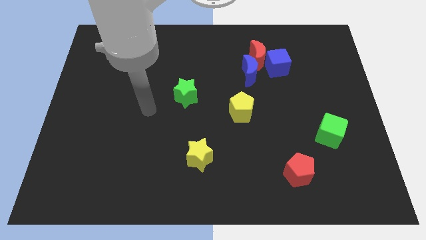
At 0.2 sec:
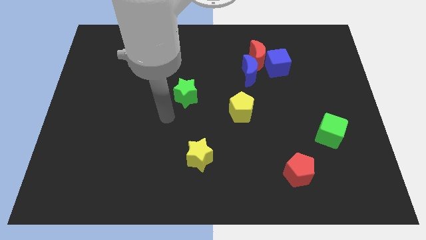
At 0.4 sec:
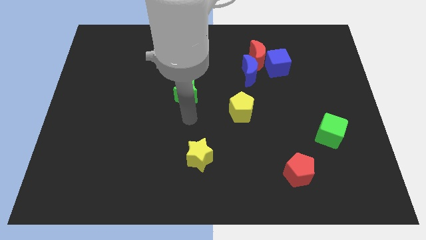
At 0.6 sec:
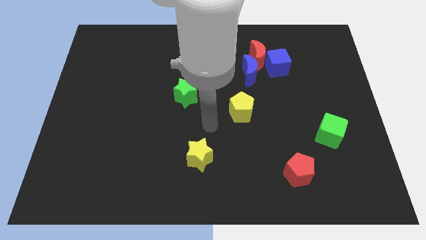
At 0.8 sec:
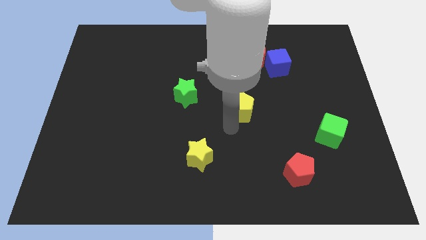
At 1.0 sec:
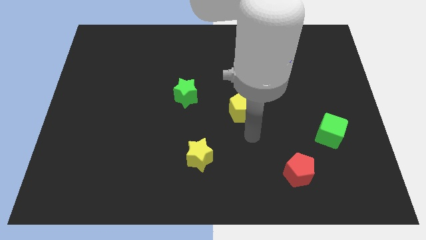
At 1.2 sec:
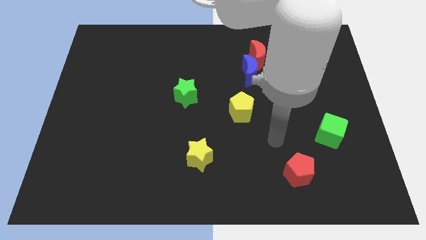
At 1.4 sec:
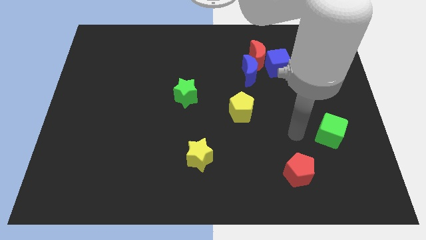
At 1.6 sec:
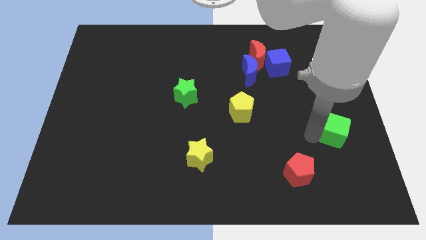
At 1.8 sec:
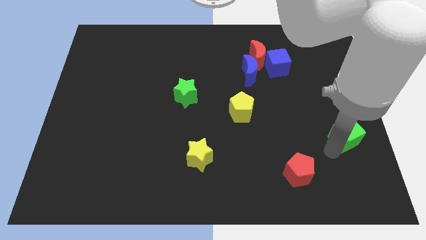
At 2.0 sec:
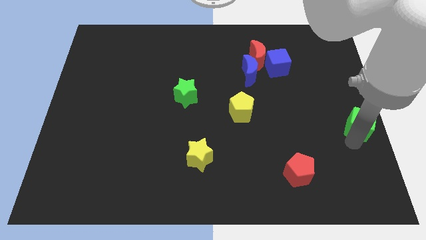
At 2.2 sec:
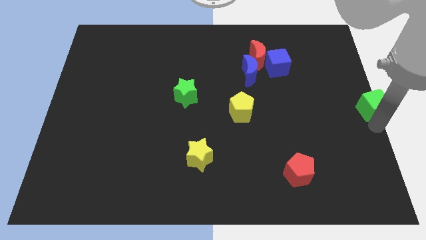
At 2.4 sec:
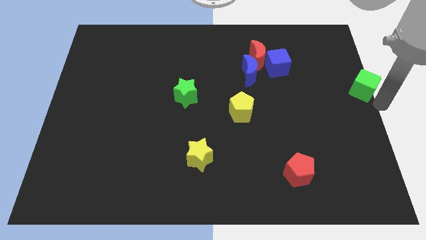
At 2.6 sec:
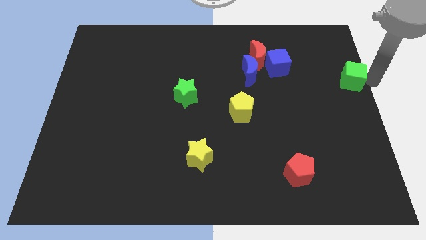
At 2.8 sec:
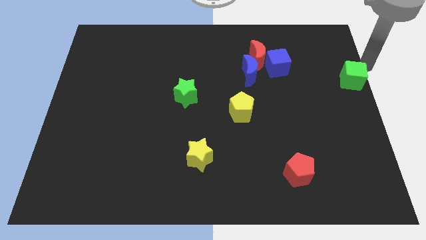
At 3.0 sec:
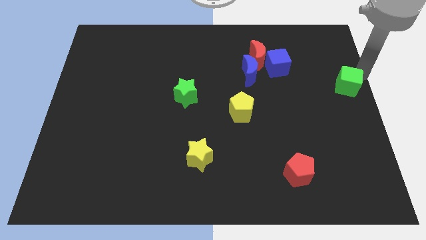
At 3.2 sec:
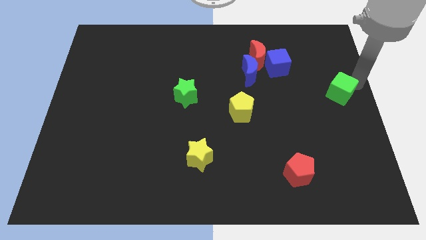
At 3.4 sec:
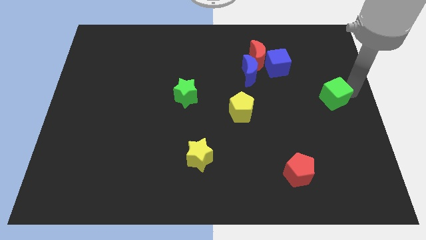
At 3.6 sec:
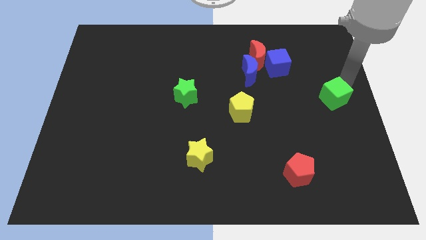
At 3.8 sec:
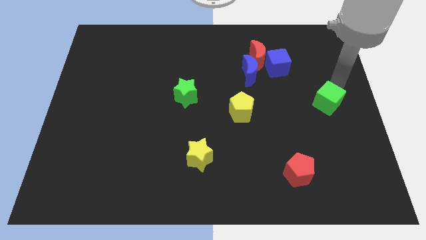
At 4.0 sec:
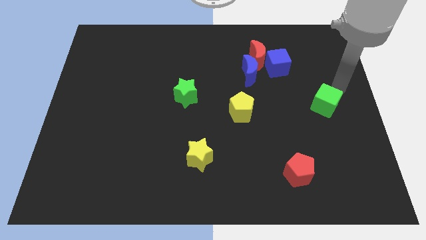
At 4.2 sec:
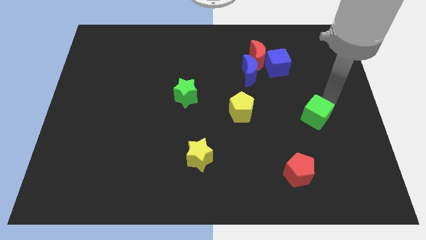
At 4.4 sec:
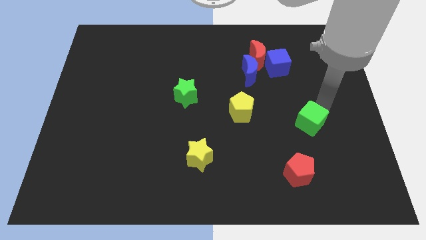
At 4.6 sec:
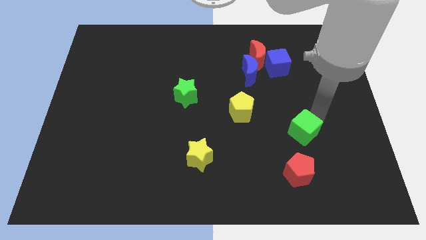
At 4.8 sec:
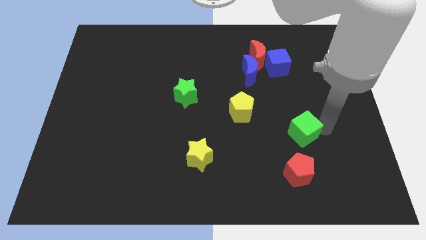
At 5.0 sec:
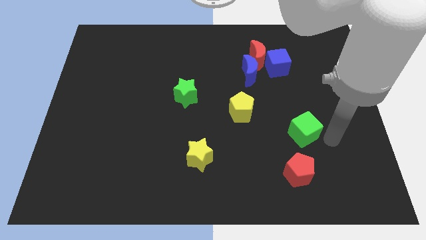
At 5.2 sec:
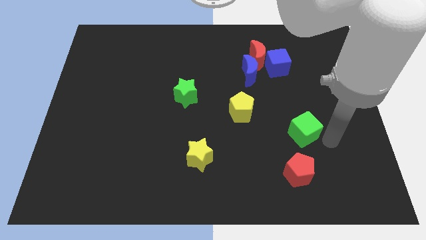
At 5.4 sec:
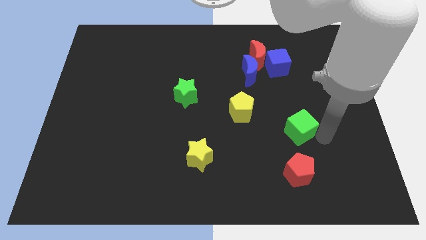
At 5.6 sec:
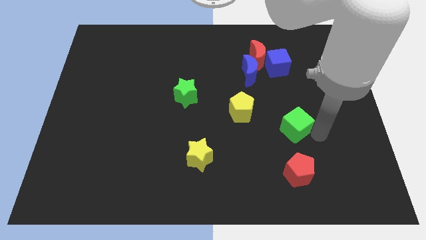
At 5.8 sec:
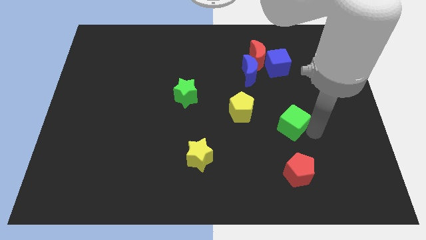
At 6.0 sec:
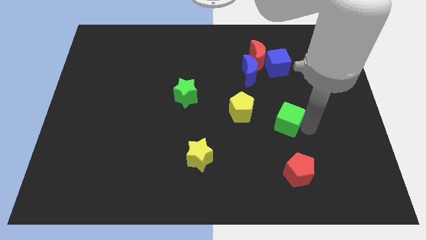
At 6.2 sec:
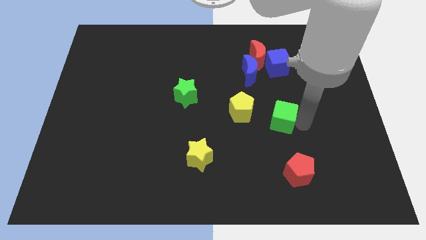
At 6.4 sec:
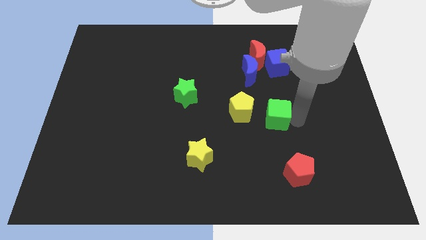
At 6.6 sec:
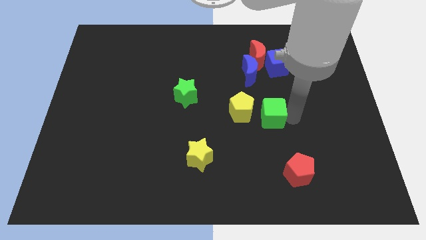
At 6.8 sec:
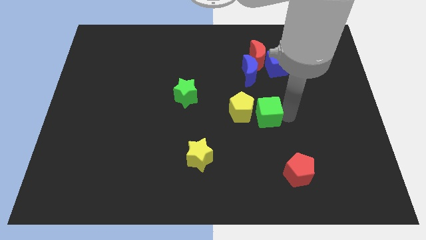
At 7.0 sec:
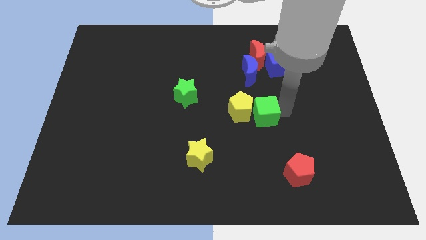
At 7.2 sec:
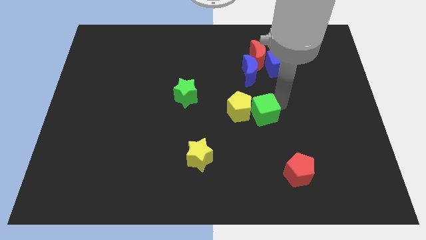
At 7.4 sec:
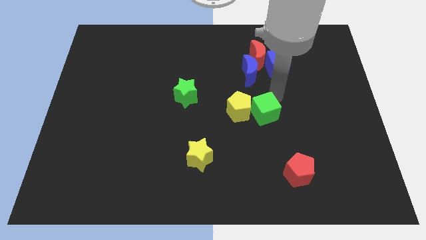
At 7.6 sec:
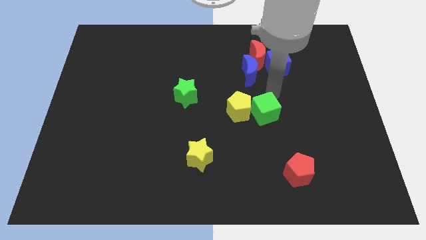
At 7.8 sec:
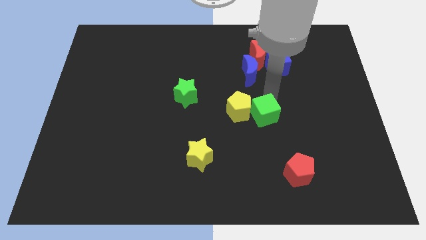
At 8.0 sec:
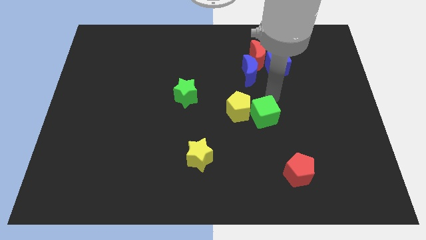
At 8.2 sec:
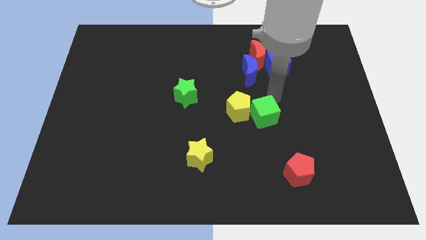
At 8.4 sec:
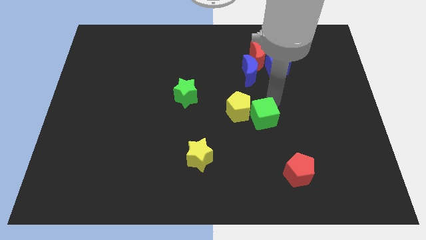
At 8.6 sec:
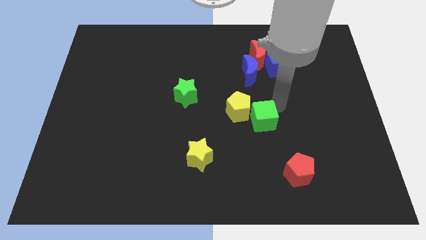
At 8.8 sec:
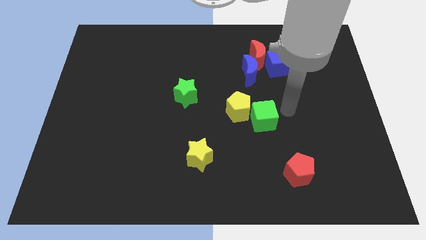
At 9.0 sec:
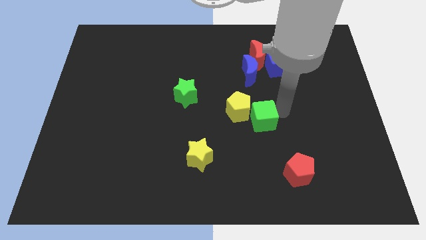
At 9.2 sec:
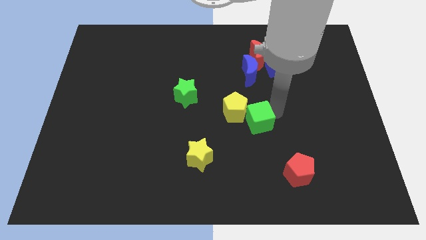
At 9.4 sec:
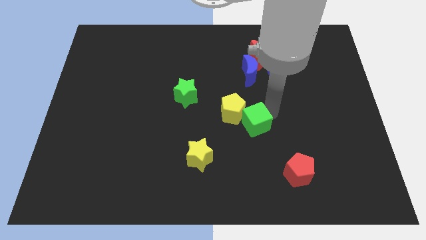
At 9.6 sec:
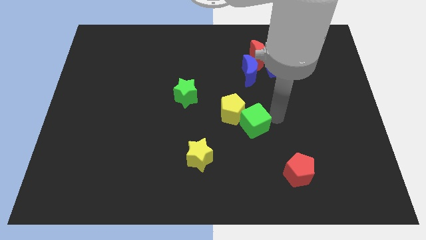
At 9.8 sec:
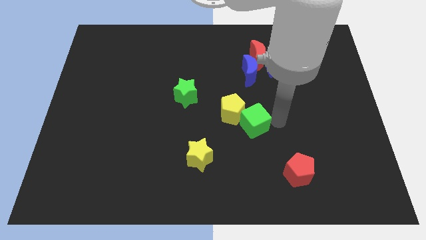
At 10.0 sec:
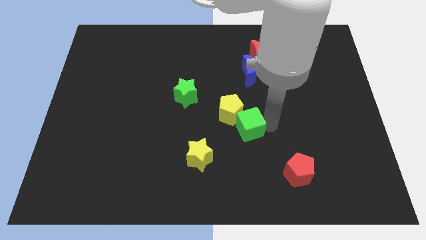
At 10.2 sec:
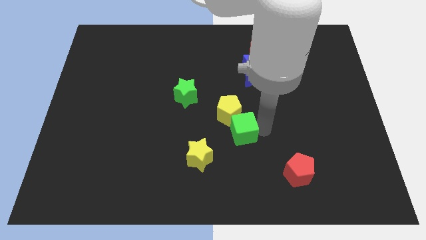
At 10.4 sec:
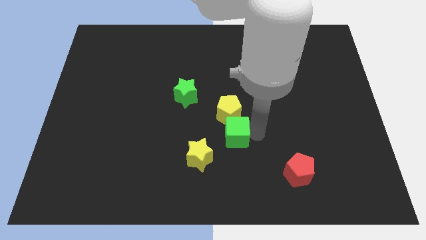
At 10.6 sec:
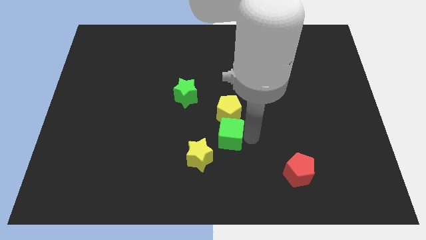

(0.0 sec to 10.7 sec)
push the green cube to the bottom left of the yellow pentagon

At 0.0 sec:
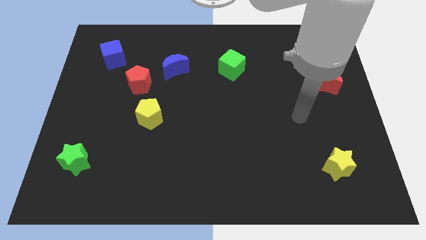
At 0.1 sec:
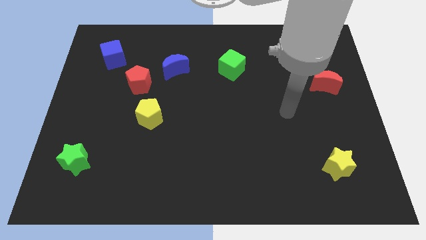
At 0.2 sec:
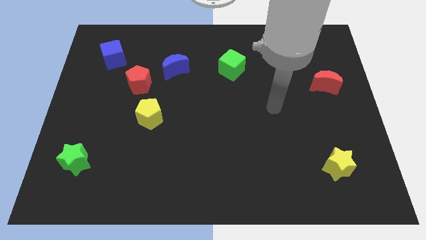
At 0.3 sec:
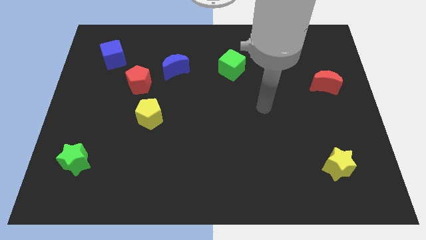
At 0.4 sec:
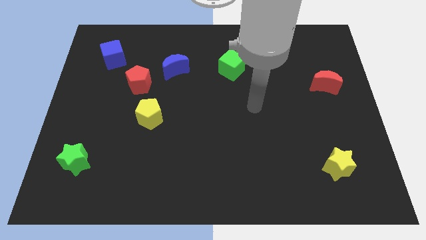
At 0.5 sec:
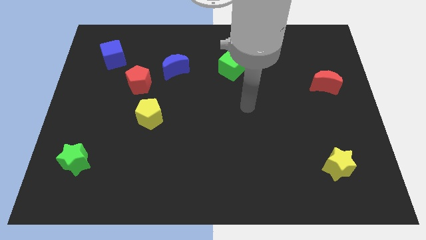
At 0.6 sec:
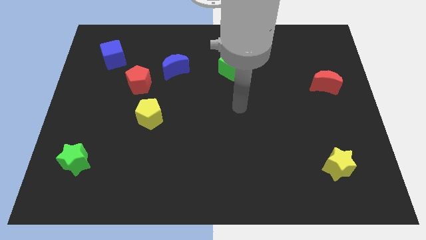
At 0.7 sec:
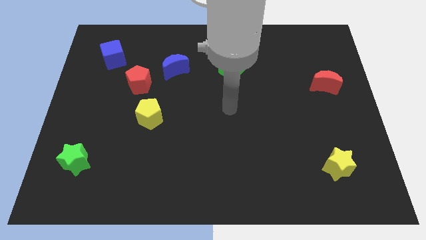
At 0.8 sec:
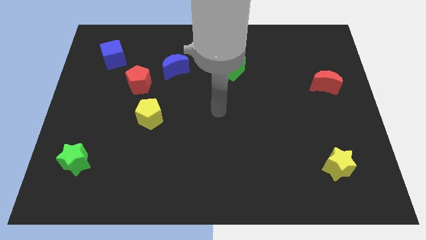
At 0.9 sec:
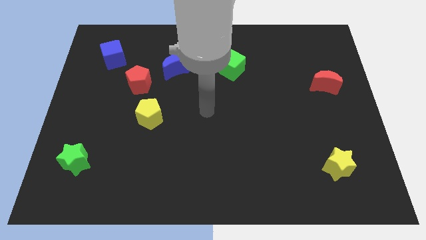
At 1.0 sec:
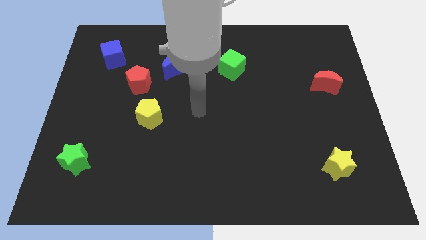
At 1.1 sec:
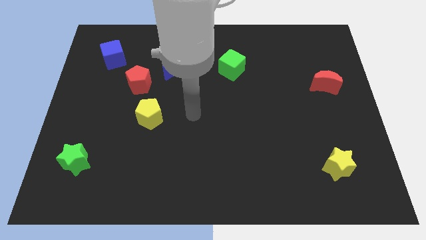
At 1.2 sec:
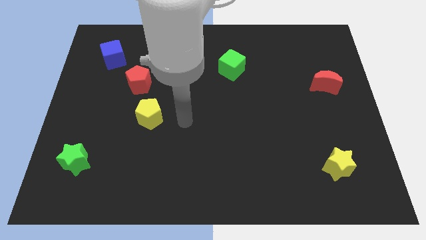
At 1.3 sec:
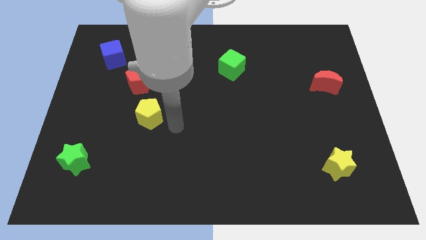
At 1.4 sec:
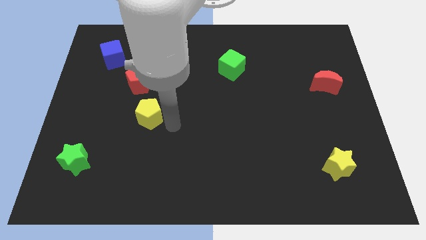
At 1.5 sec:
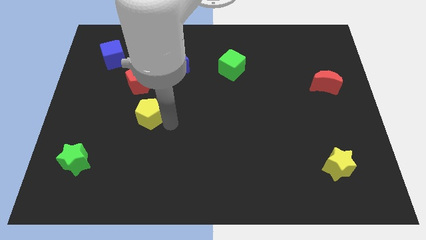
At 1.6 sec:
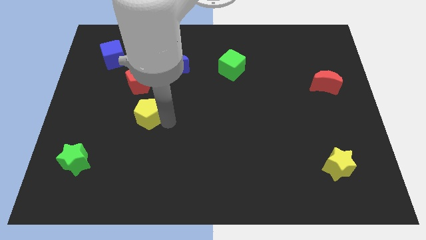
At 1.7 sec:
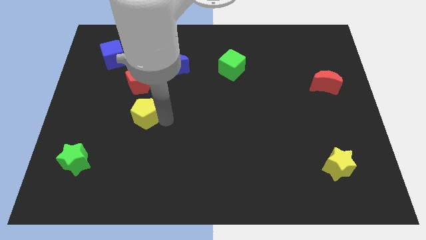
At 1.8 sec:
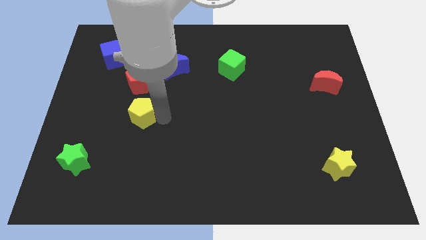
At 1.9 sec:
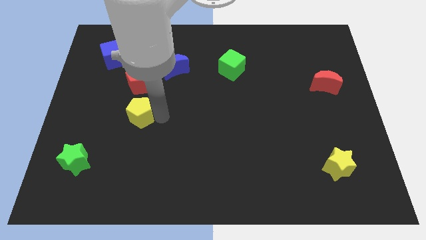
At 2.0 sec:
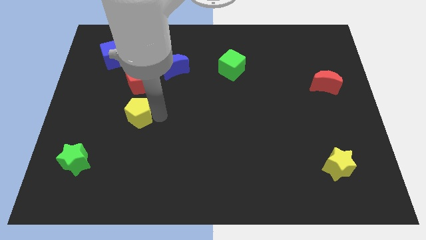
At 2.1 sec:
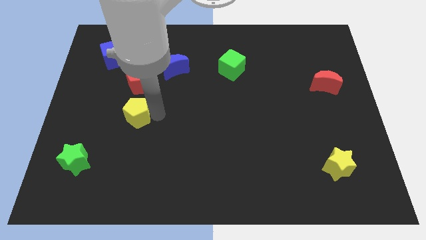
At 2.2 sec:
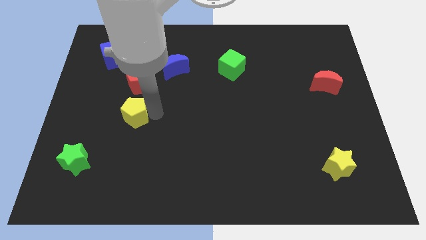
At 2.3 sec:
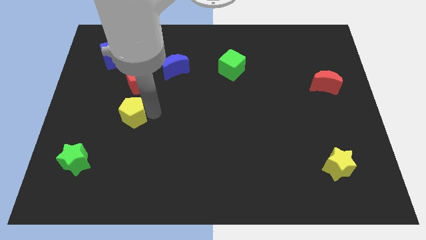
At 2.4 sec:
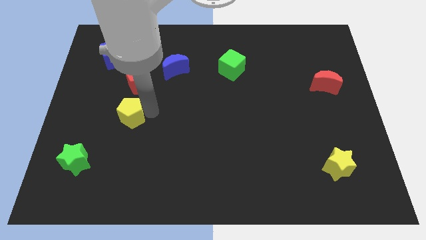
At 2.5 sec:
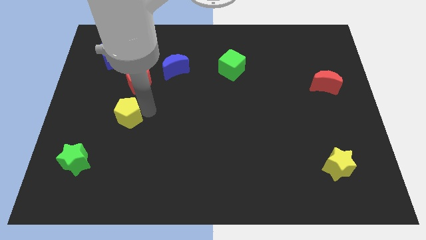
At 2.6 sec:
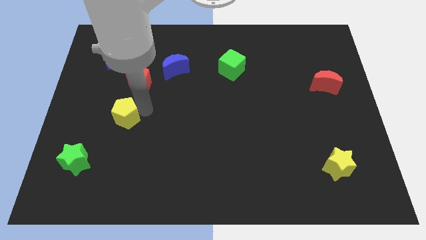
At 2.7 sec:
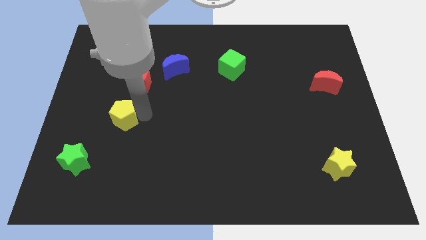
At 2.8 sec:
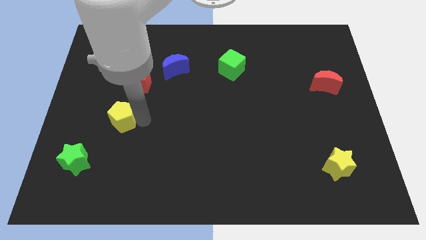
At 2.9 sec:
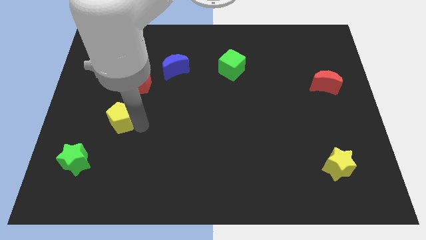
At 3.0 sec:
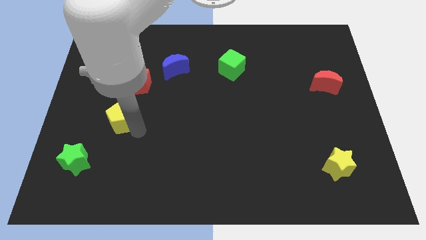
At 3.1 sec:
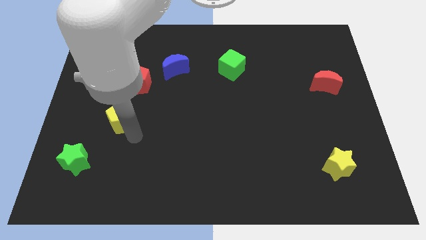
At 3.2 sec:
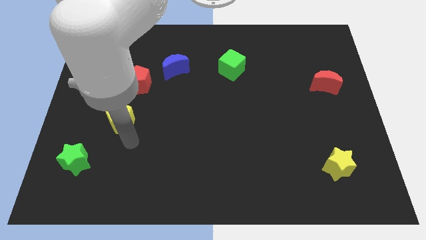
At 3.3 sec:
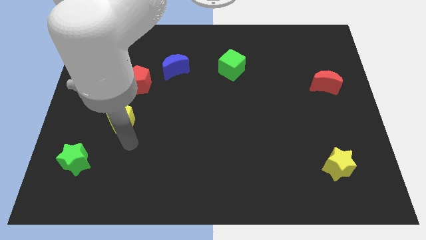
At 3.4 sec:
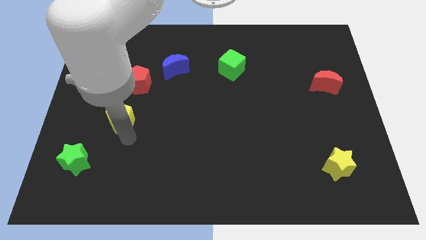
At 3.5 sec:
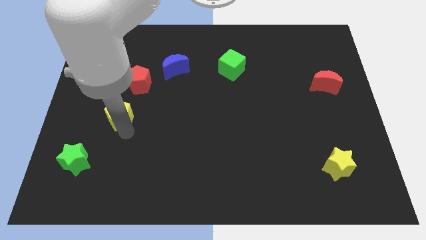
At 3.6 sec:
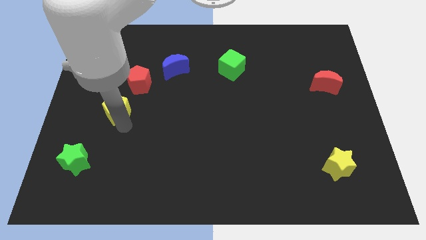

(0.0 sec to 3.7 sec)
slide the yellow pentagon to the bottom left side of the red pentagon
